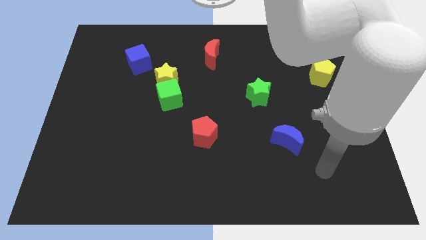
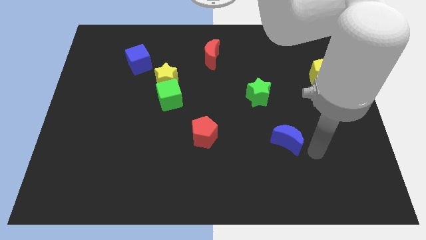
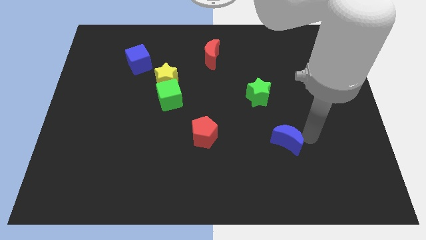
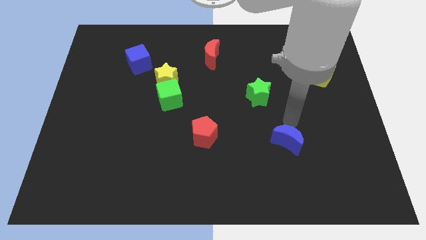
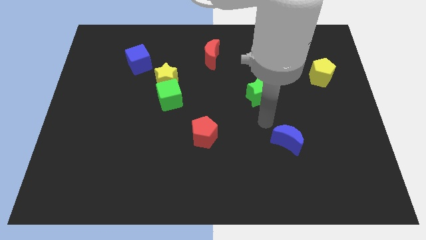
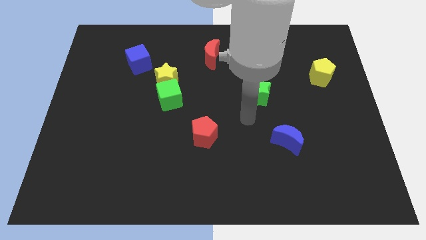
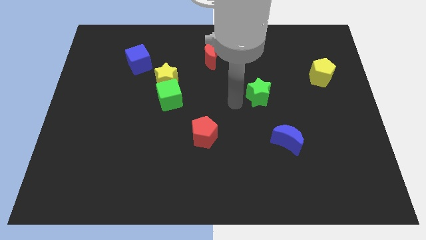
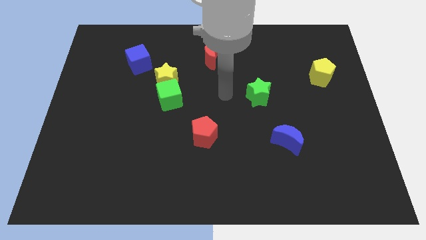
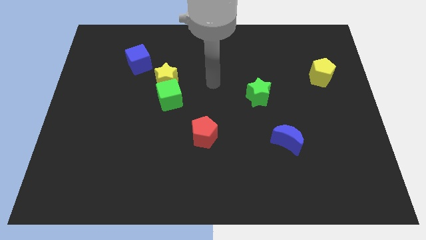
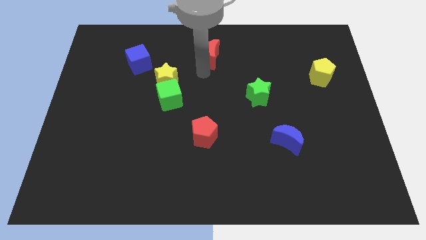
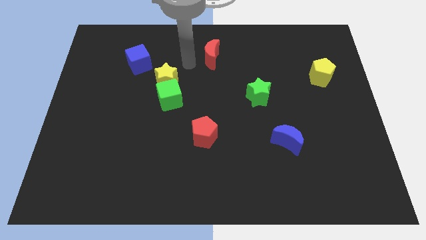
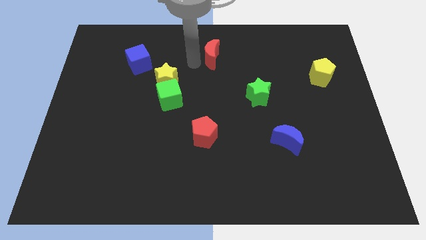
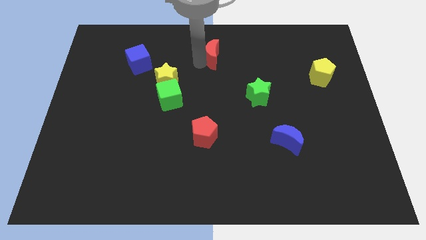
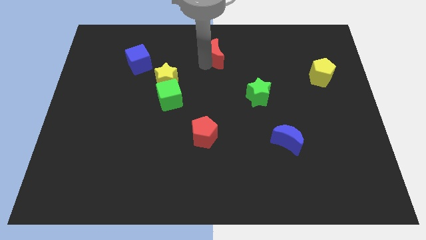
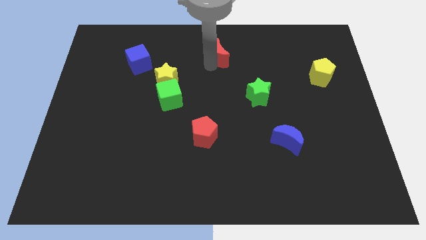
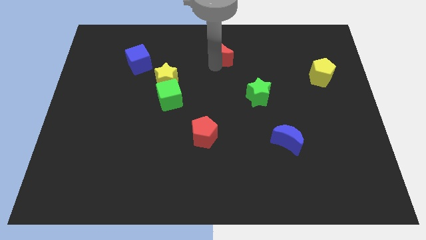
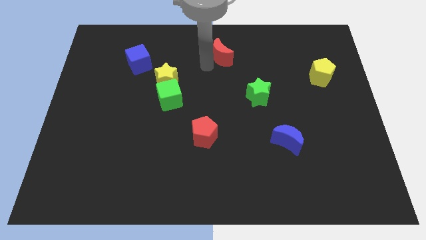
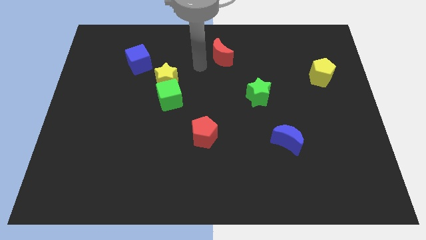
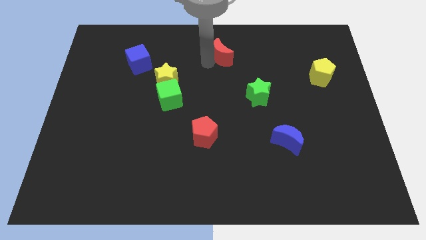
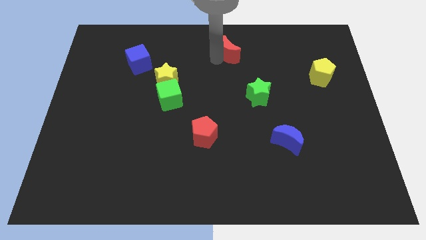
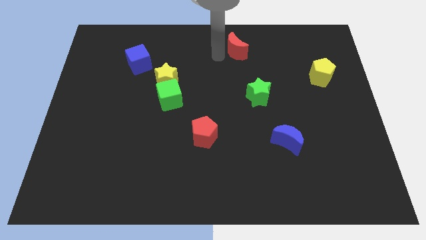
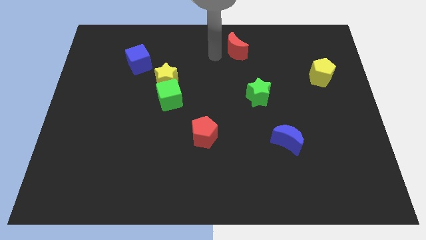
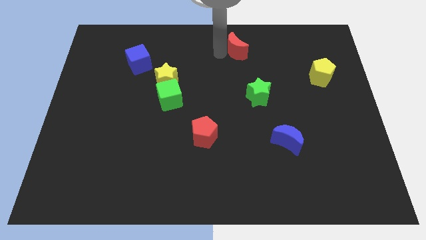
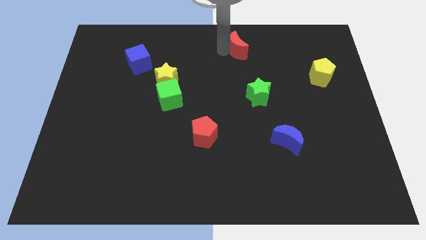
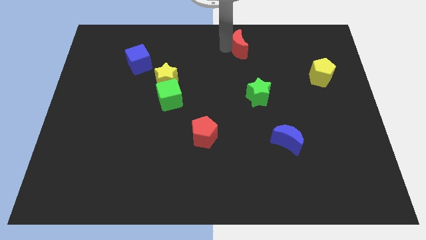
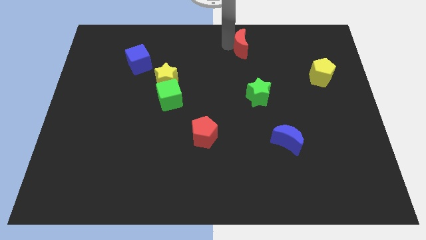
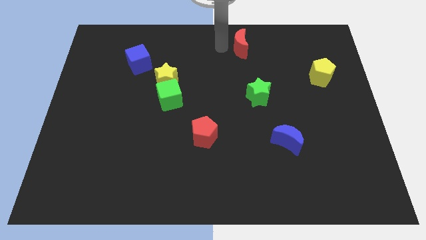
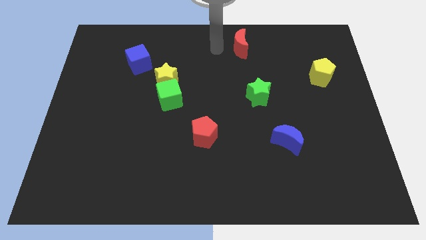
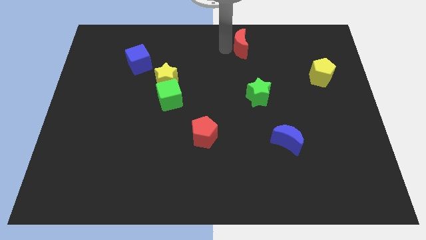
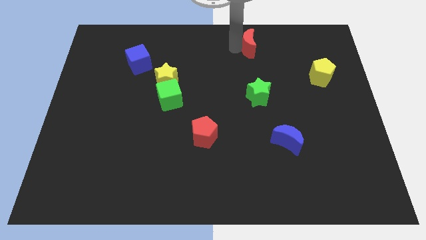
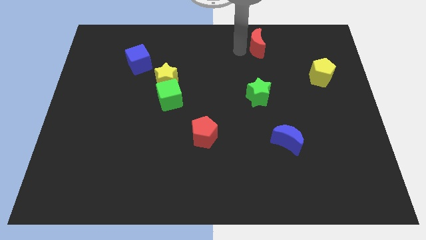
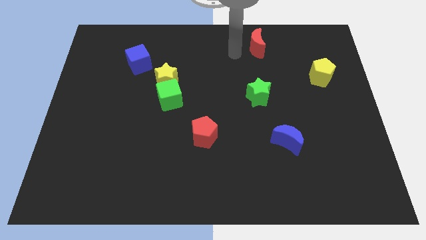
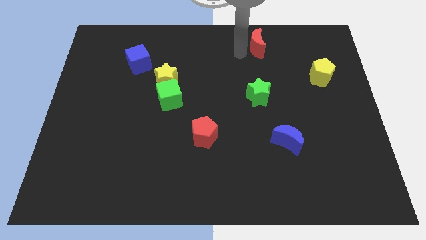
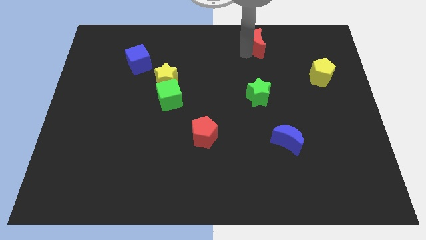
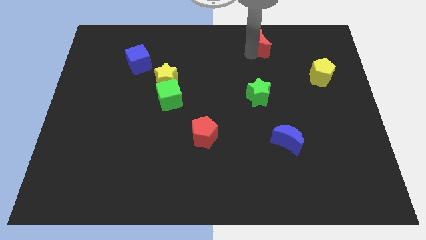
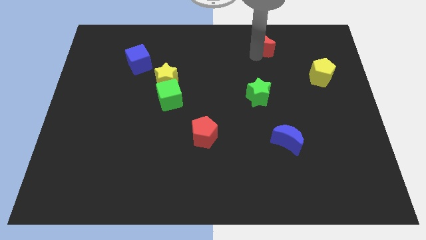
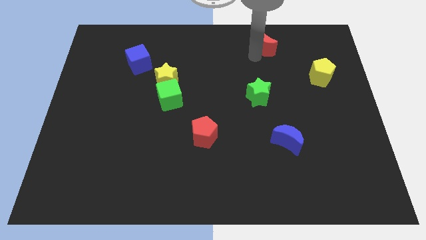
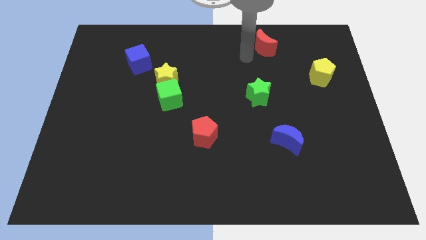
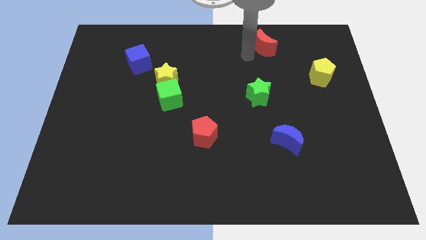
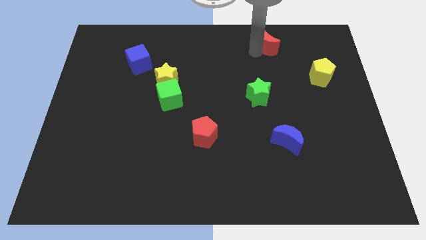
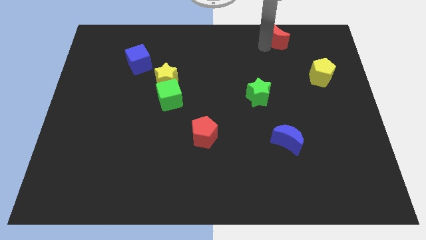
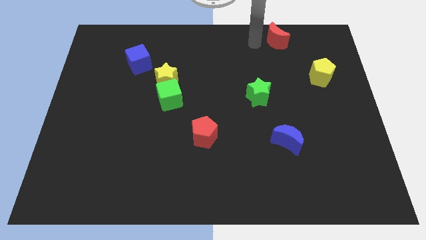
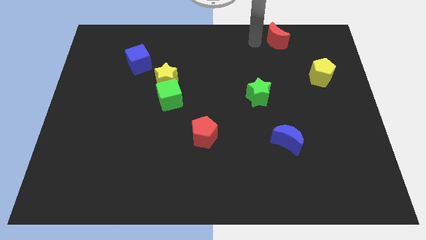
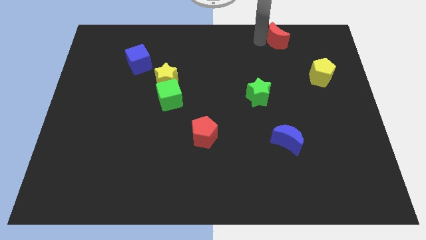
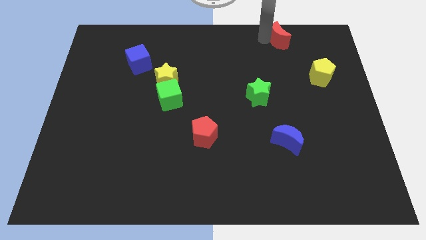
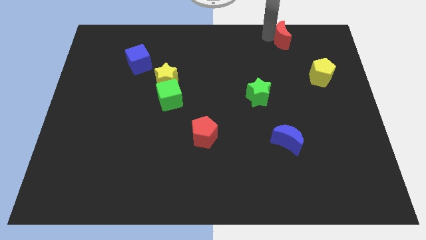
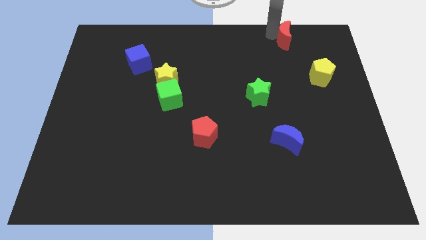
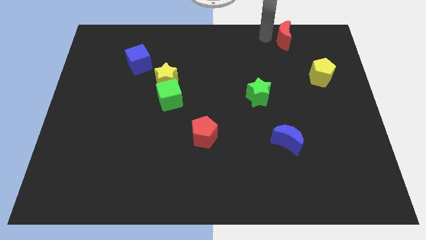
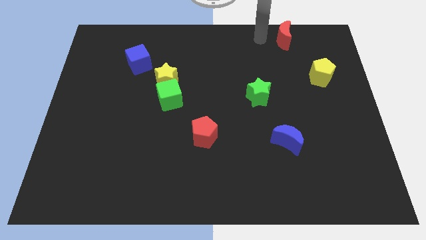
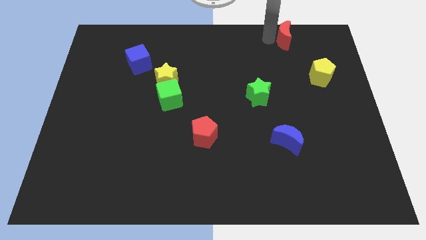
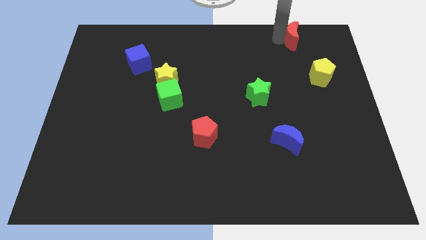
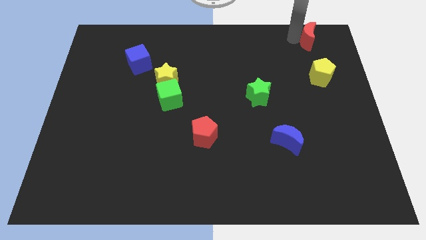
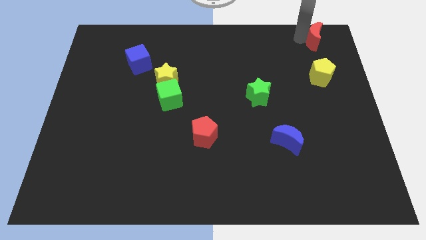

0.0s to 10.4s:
slide the red moon to the upper right corner

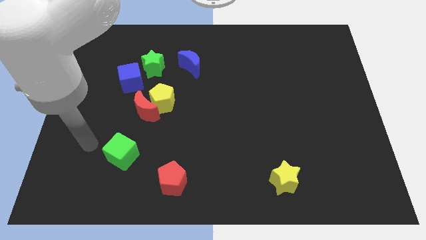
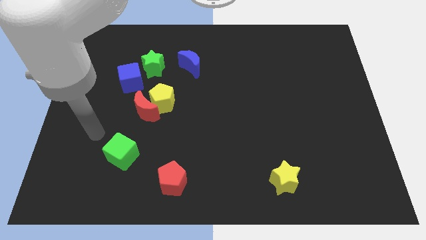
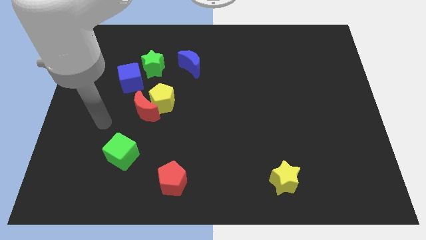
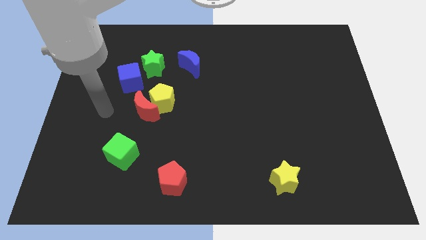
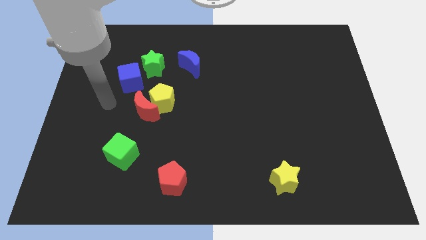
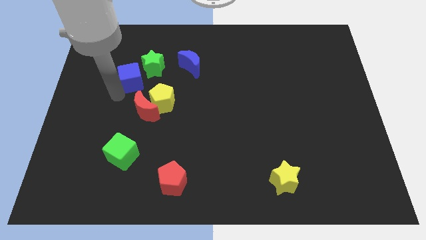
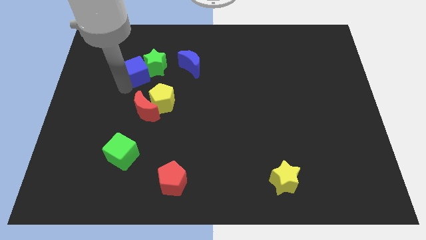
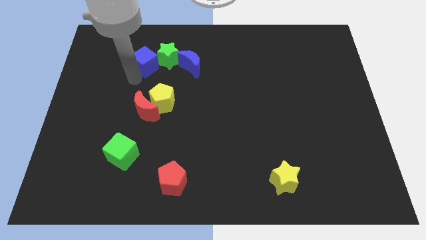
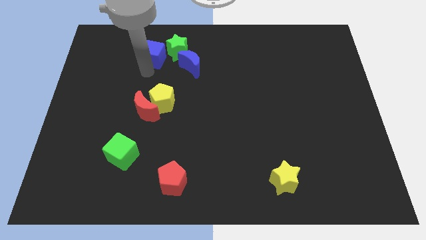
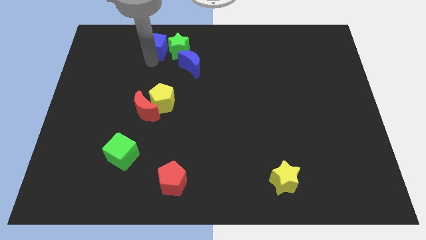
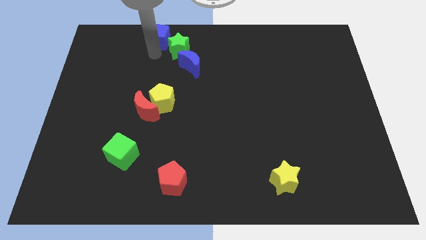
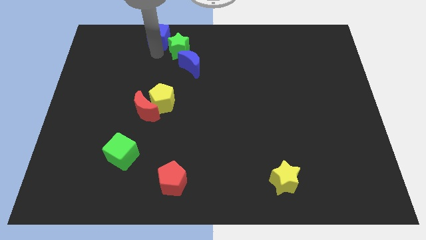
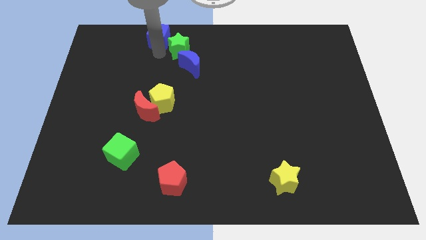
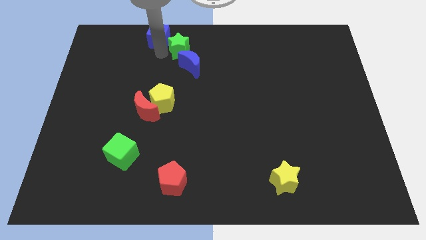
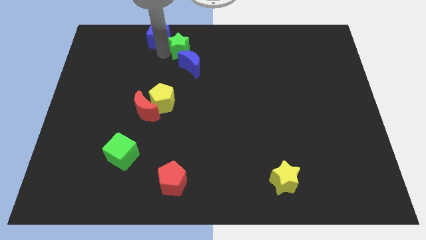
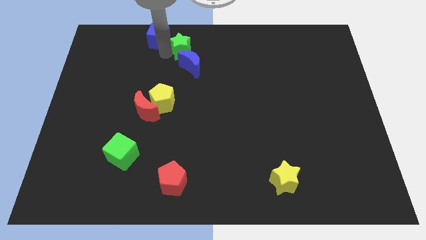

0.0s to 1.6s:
slide the green star to the top side
